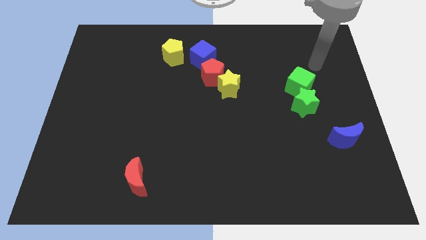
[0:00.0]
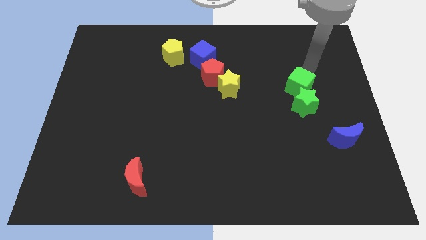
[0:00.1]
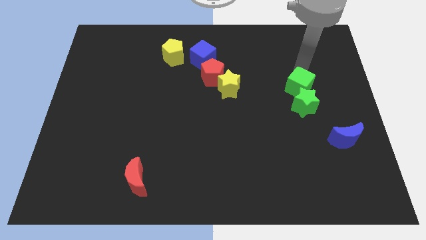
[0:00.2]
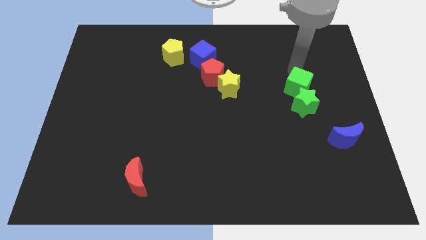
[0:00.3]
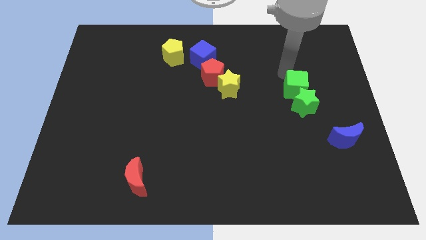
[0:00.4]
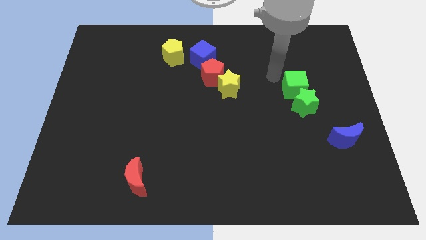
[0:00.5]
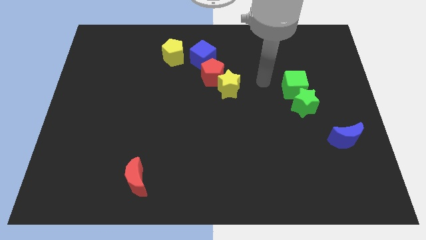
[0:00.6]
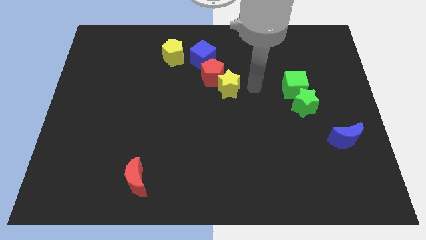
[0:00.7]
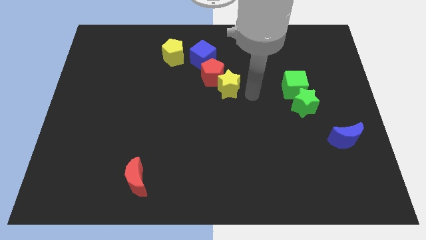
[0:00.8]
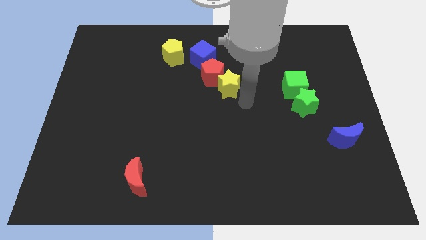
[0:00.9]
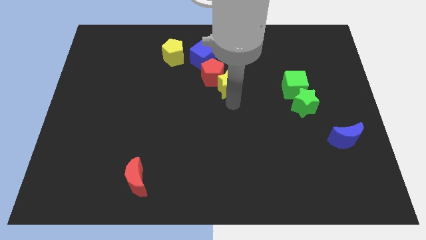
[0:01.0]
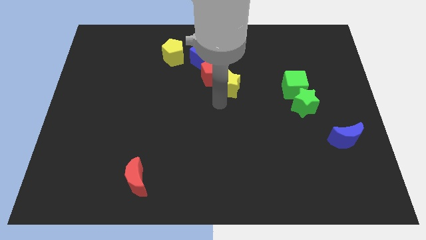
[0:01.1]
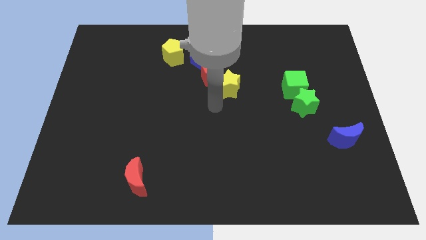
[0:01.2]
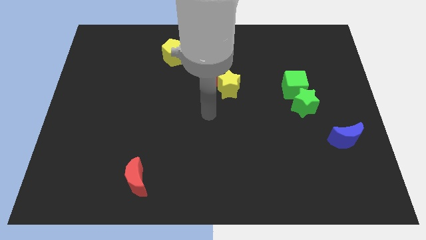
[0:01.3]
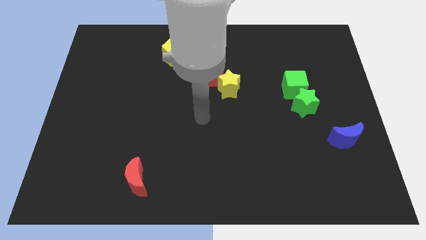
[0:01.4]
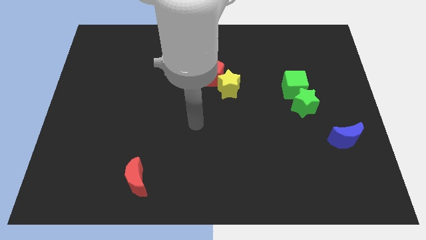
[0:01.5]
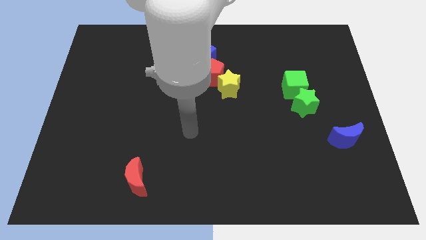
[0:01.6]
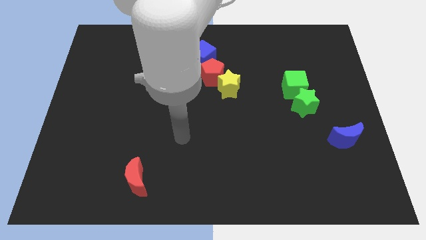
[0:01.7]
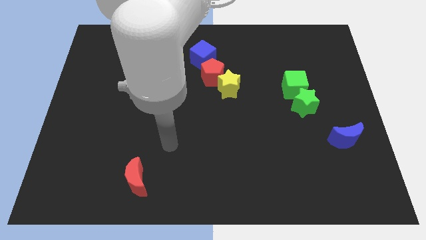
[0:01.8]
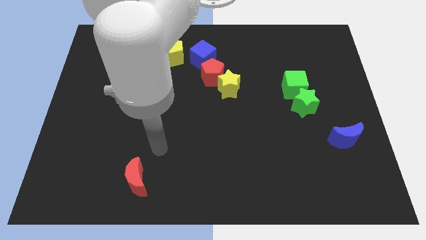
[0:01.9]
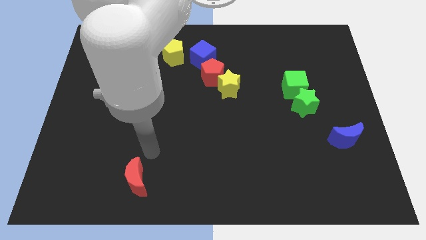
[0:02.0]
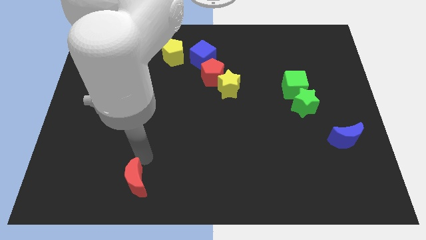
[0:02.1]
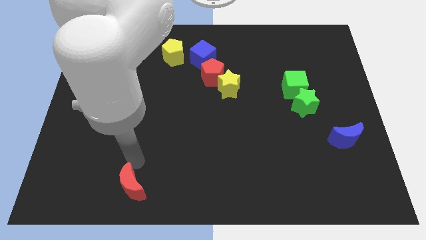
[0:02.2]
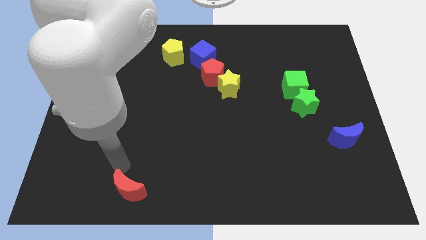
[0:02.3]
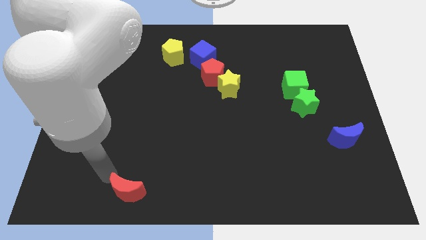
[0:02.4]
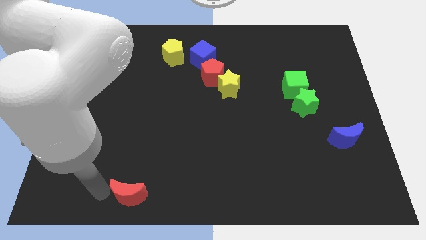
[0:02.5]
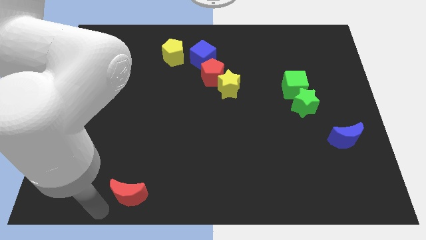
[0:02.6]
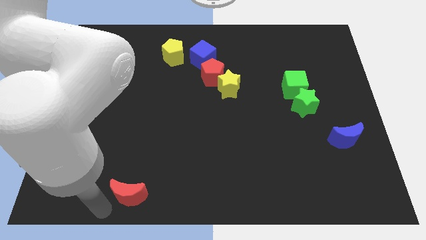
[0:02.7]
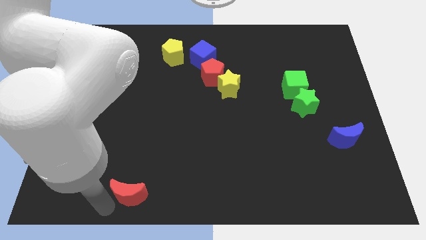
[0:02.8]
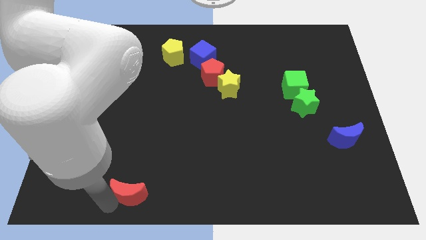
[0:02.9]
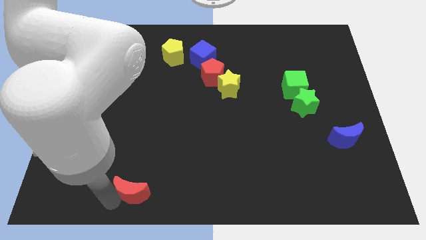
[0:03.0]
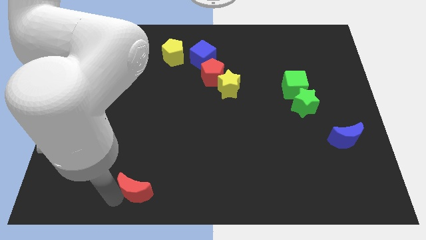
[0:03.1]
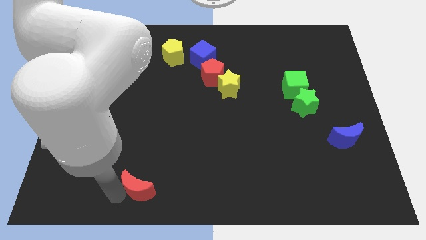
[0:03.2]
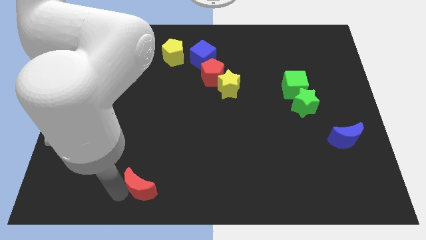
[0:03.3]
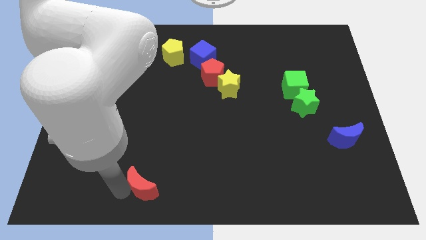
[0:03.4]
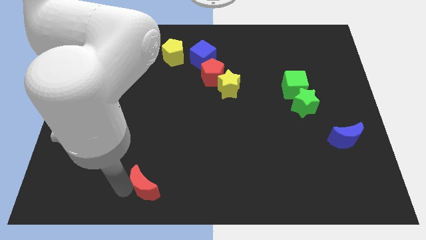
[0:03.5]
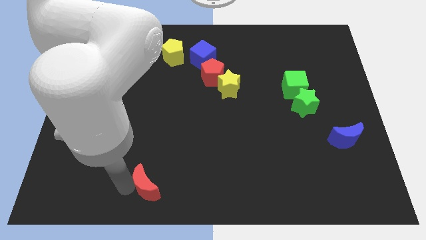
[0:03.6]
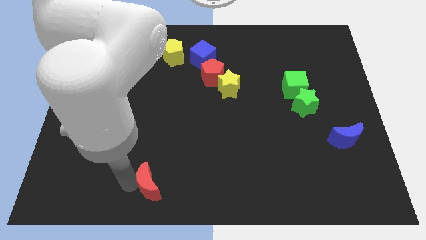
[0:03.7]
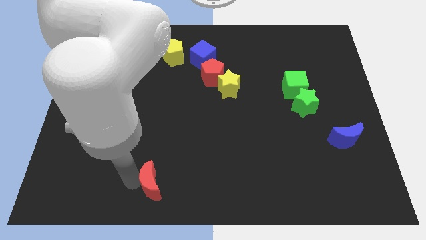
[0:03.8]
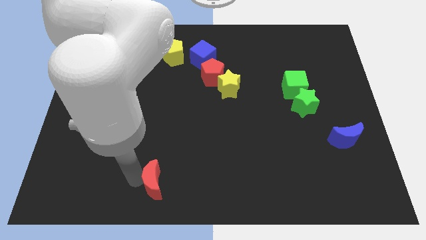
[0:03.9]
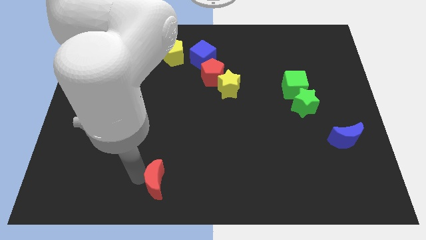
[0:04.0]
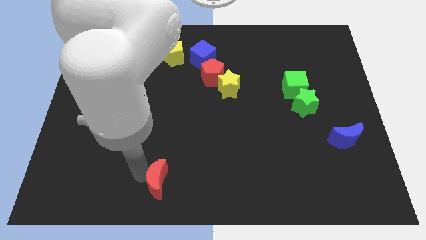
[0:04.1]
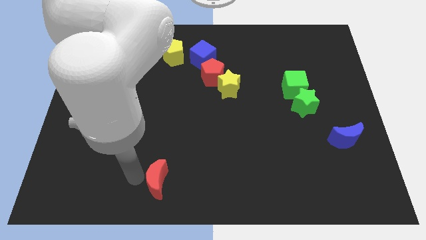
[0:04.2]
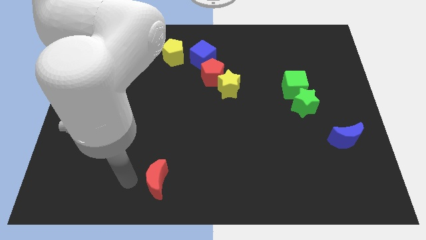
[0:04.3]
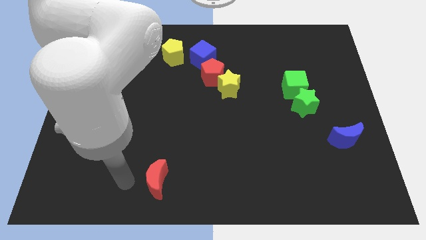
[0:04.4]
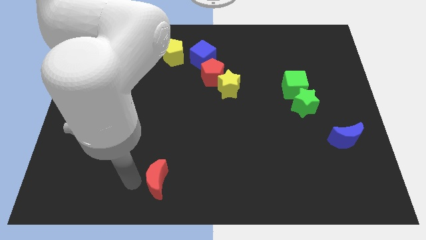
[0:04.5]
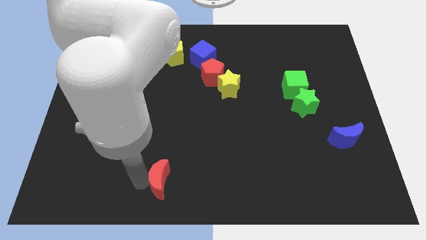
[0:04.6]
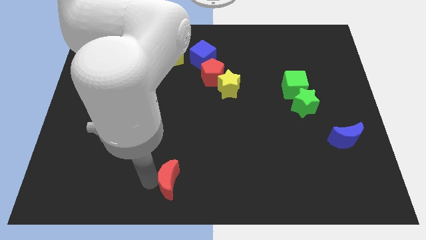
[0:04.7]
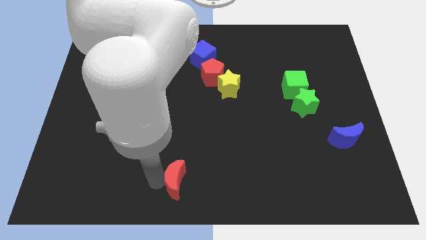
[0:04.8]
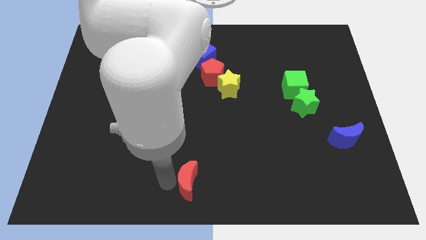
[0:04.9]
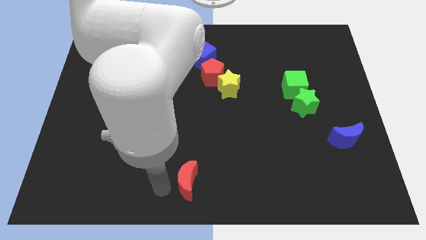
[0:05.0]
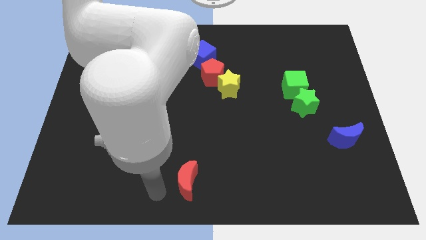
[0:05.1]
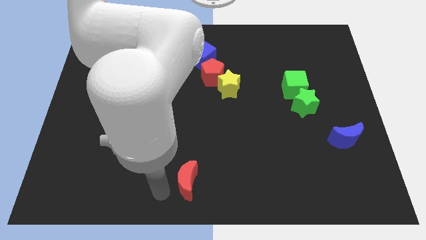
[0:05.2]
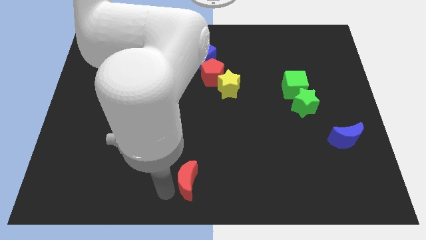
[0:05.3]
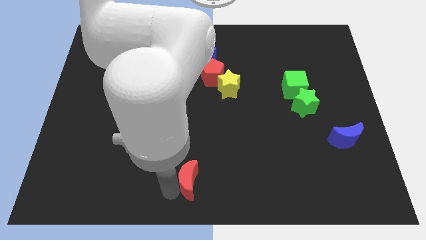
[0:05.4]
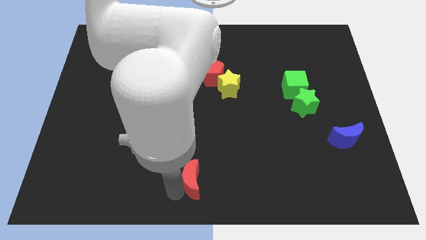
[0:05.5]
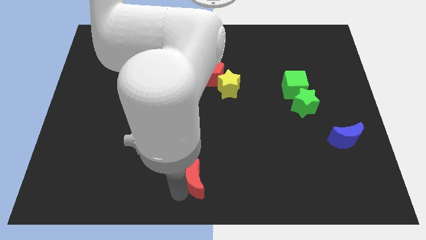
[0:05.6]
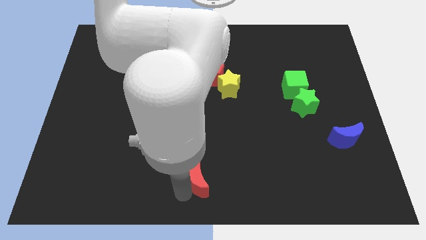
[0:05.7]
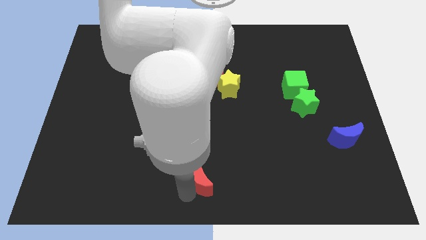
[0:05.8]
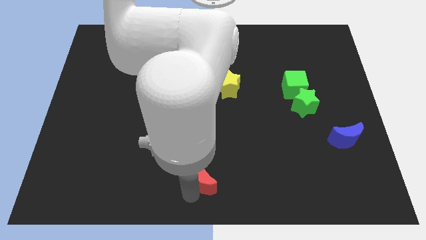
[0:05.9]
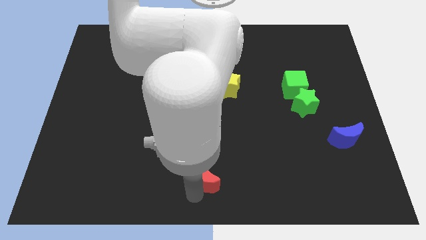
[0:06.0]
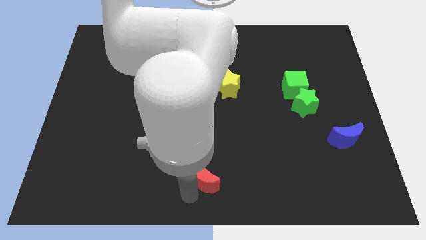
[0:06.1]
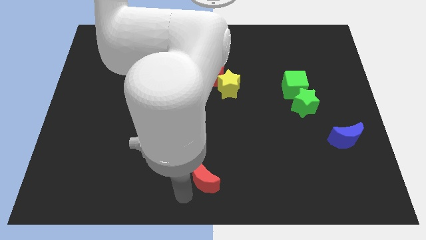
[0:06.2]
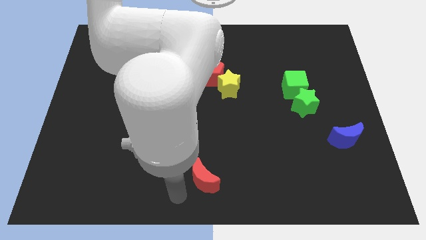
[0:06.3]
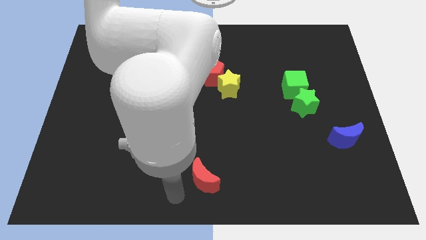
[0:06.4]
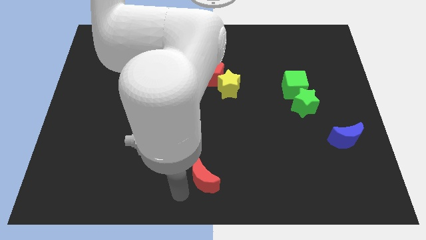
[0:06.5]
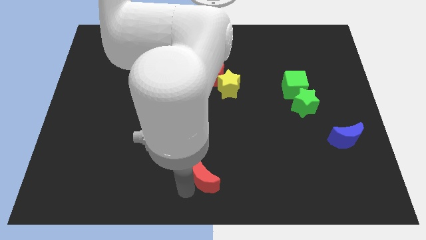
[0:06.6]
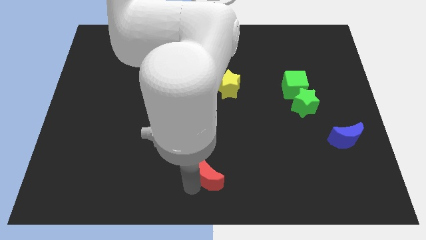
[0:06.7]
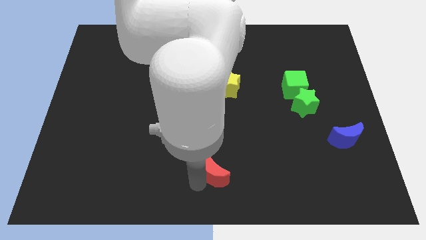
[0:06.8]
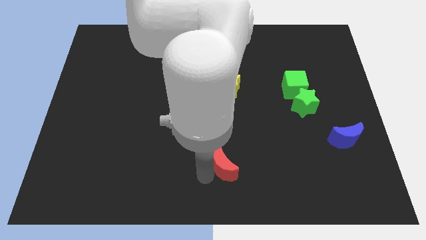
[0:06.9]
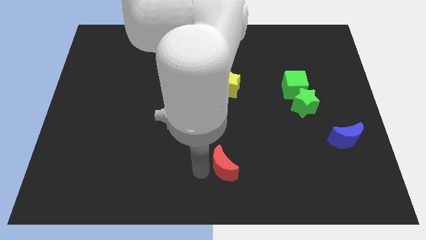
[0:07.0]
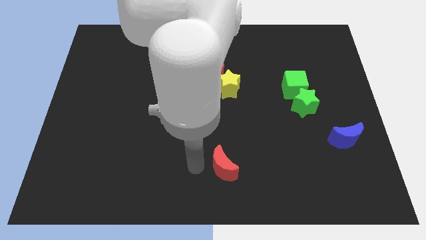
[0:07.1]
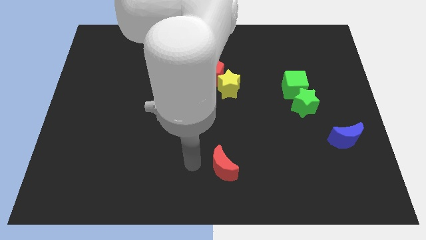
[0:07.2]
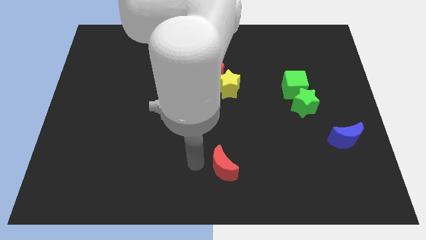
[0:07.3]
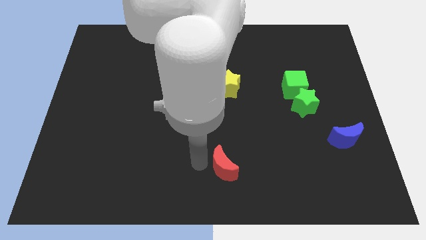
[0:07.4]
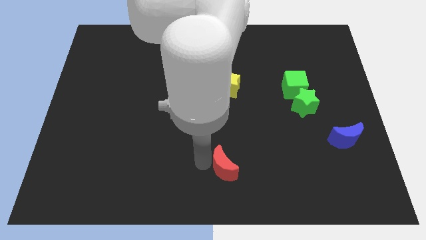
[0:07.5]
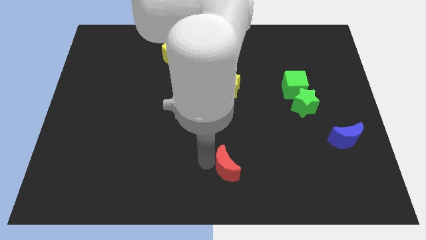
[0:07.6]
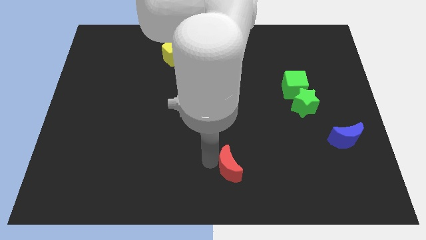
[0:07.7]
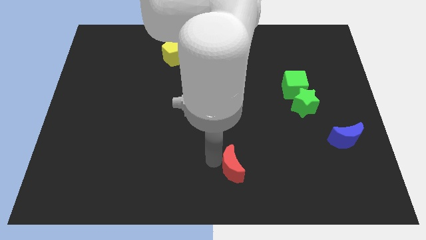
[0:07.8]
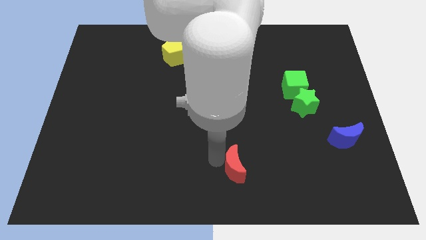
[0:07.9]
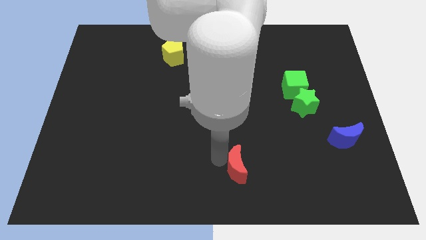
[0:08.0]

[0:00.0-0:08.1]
move the red moon to the right
